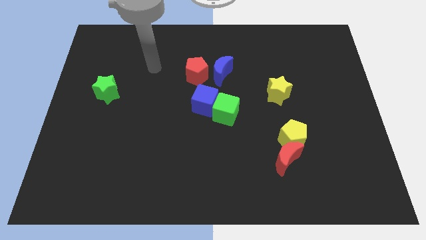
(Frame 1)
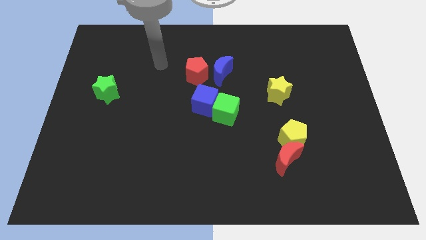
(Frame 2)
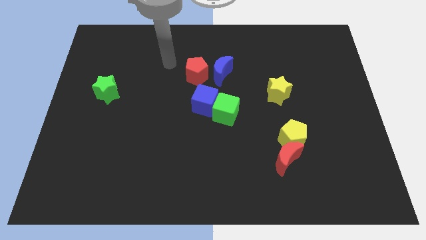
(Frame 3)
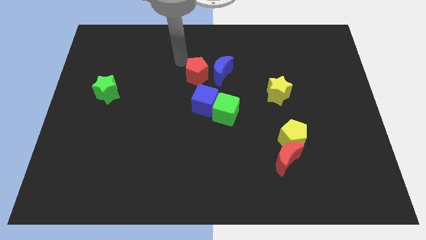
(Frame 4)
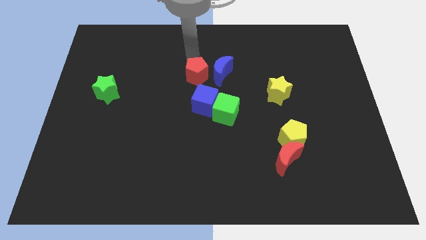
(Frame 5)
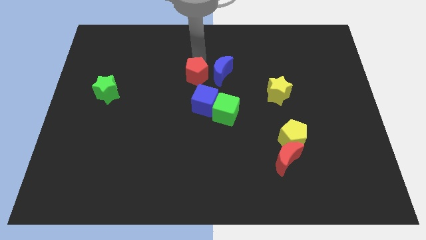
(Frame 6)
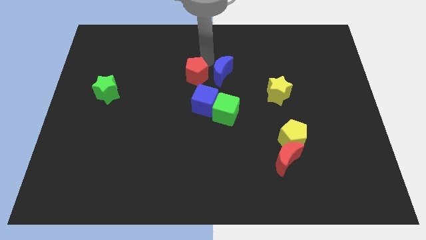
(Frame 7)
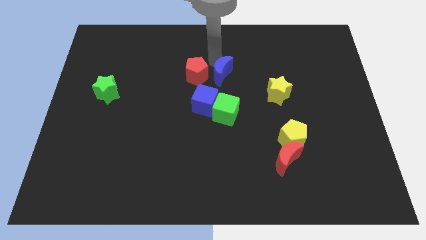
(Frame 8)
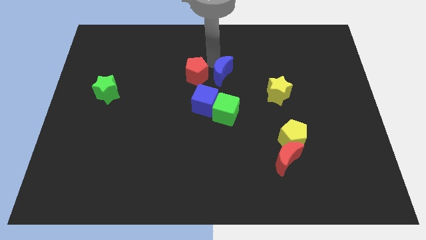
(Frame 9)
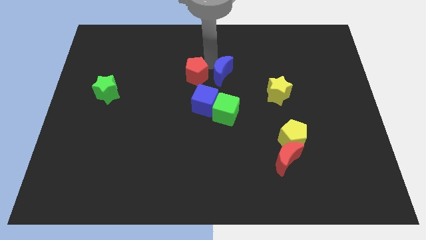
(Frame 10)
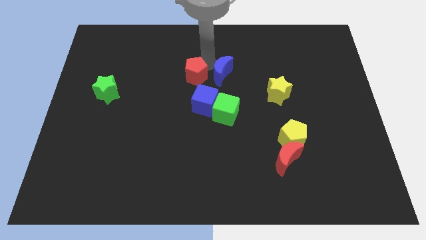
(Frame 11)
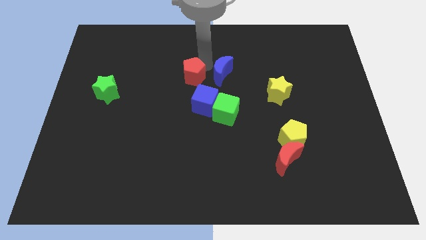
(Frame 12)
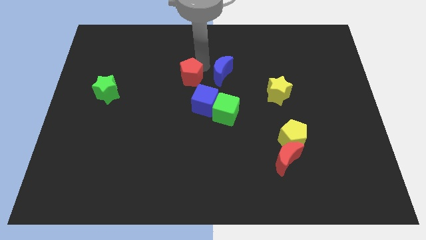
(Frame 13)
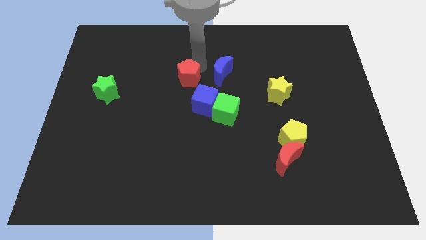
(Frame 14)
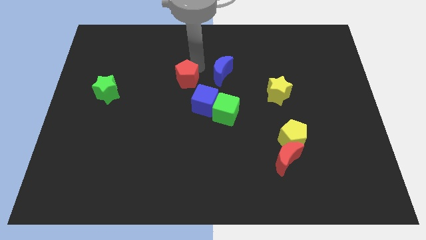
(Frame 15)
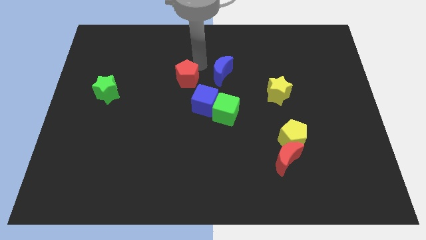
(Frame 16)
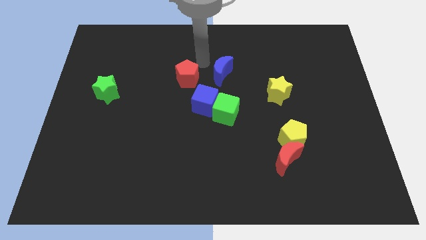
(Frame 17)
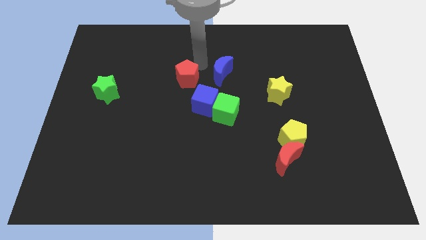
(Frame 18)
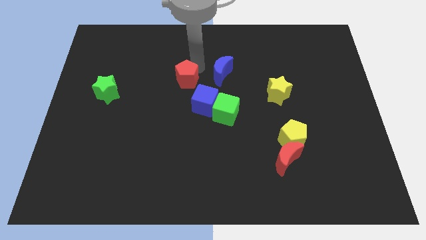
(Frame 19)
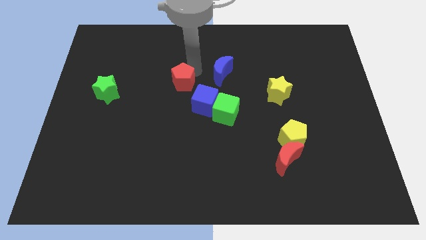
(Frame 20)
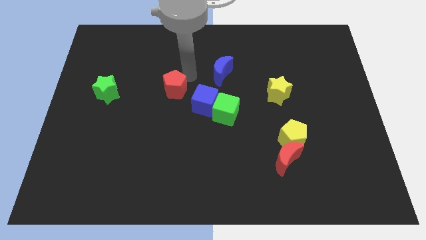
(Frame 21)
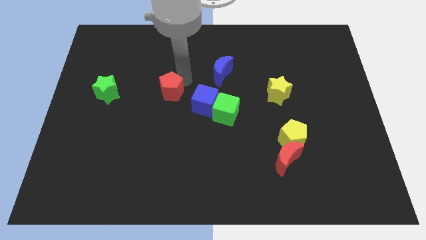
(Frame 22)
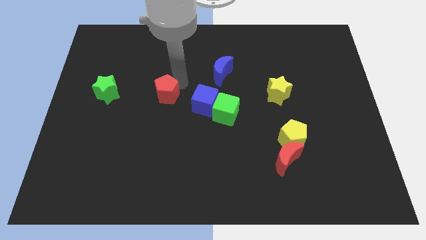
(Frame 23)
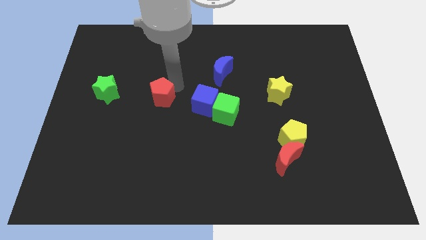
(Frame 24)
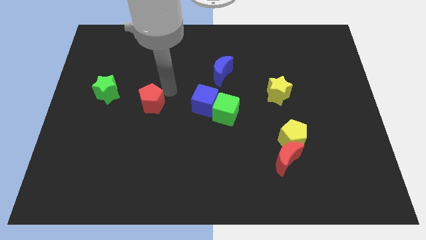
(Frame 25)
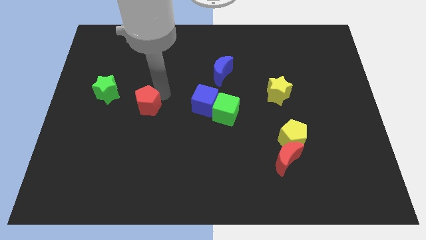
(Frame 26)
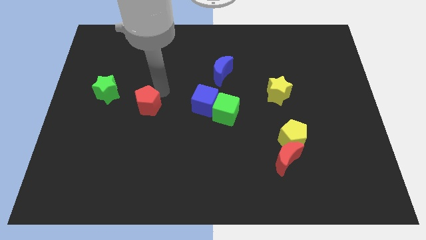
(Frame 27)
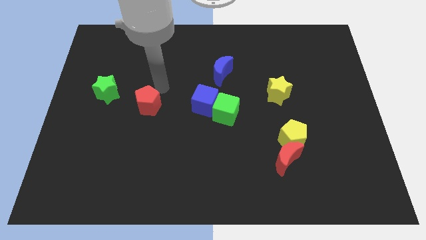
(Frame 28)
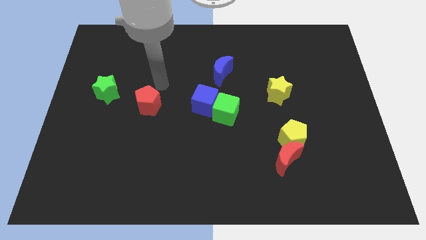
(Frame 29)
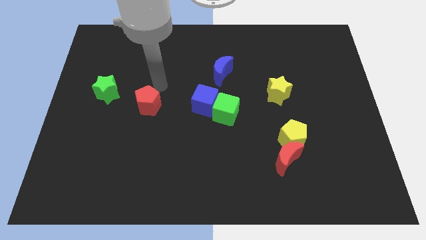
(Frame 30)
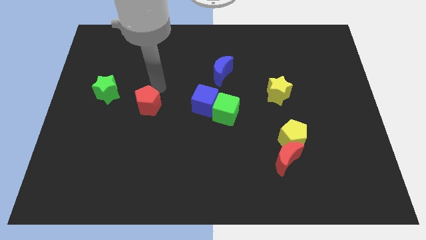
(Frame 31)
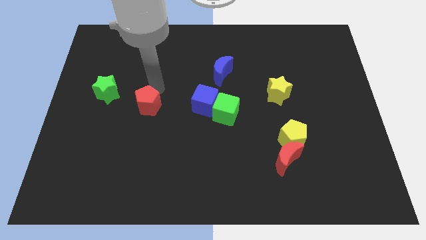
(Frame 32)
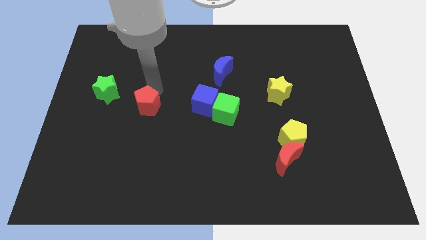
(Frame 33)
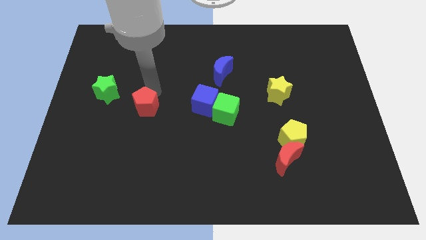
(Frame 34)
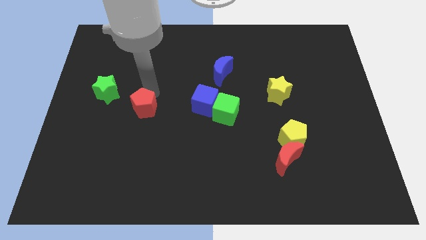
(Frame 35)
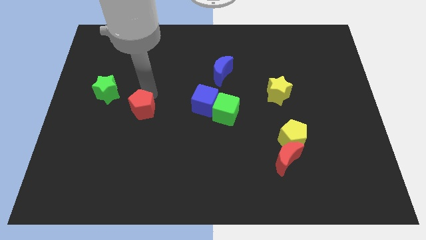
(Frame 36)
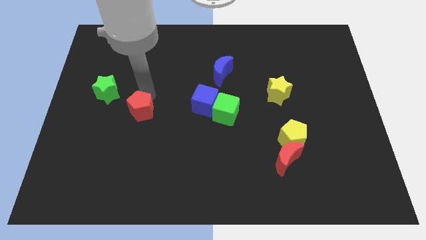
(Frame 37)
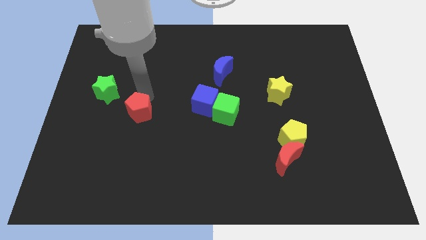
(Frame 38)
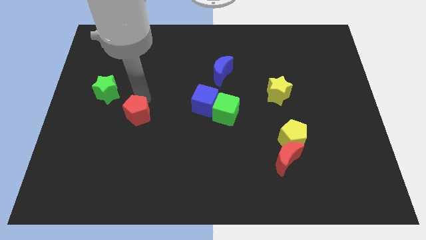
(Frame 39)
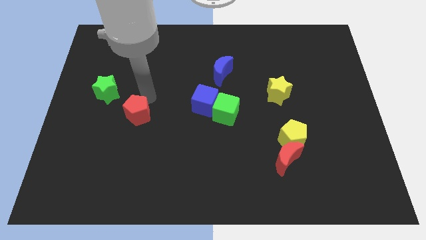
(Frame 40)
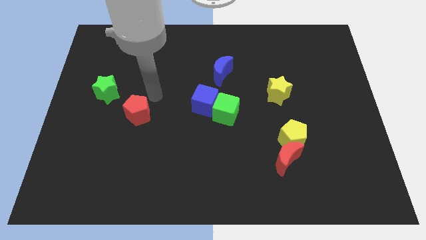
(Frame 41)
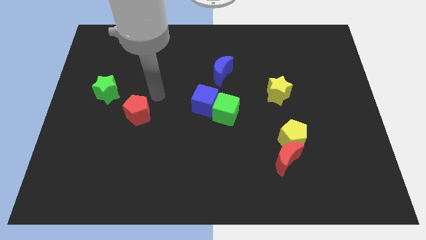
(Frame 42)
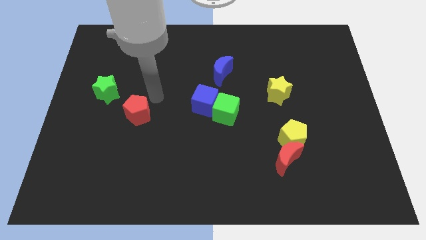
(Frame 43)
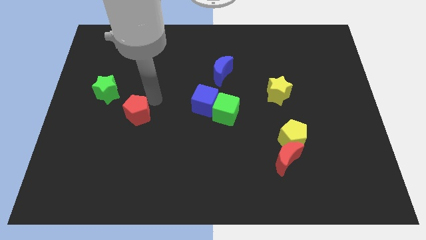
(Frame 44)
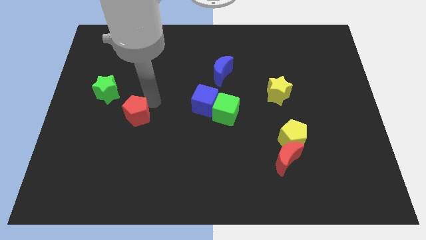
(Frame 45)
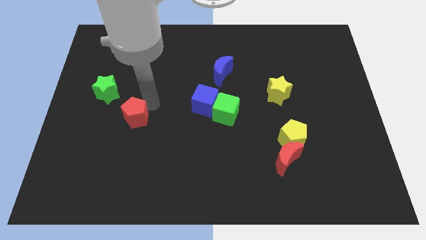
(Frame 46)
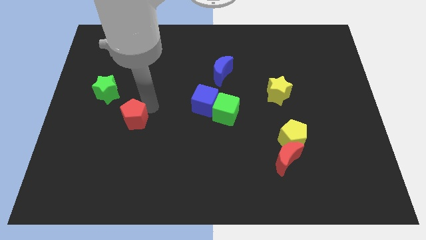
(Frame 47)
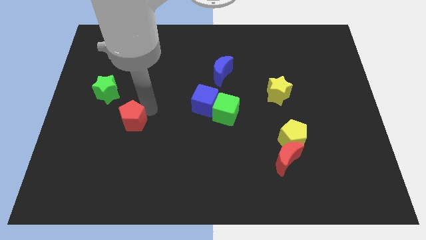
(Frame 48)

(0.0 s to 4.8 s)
move the red pentagon downwards and to the left

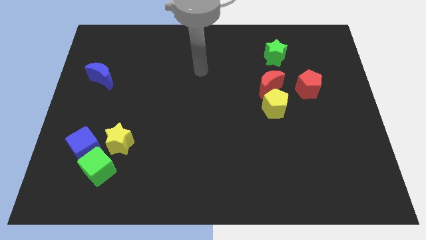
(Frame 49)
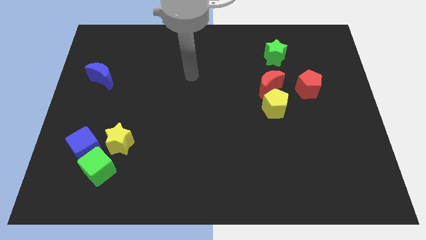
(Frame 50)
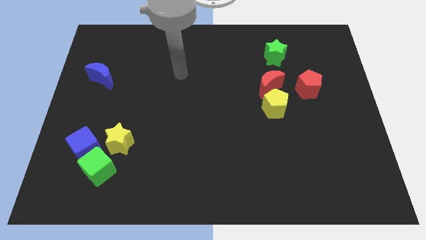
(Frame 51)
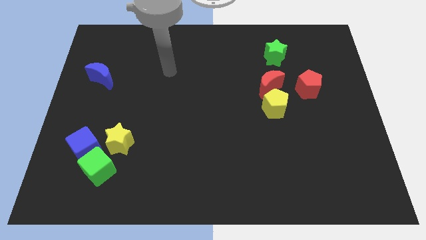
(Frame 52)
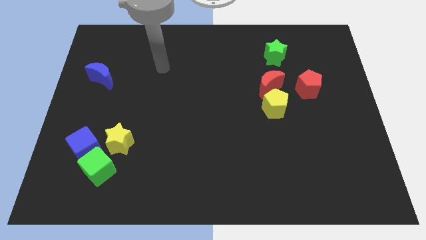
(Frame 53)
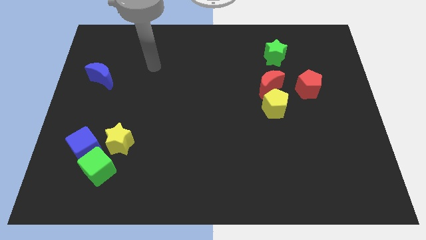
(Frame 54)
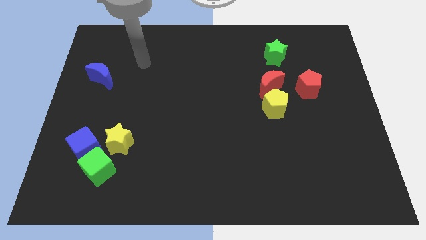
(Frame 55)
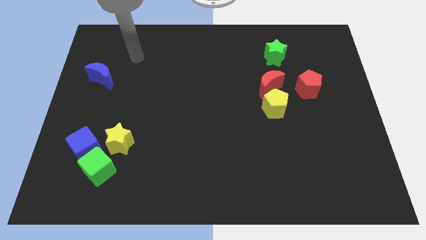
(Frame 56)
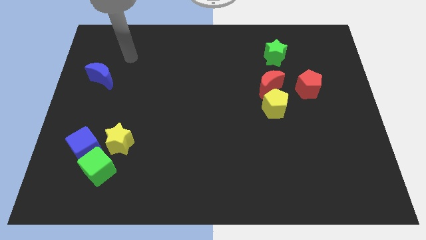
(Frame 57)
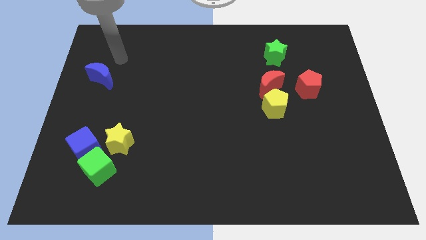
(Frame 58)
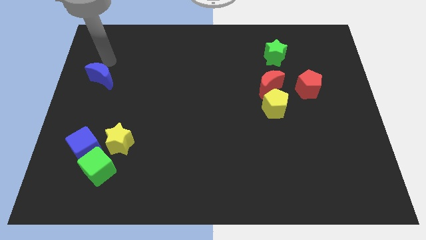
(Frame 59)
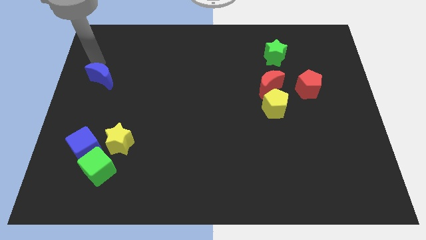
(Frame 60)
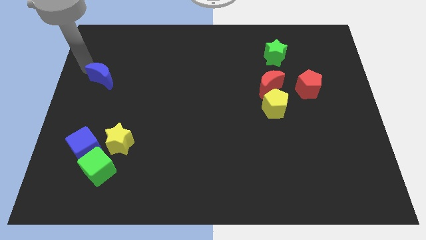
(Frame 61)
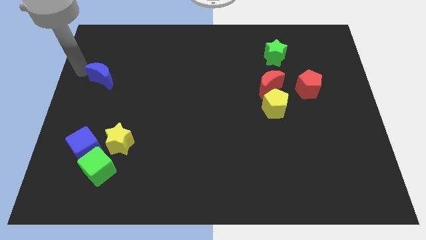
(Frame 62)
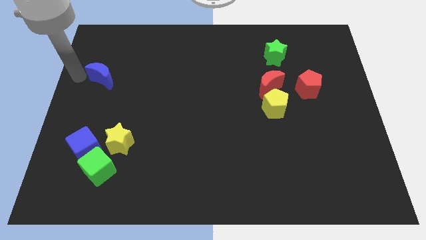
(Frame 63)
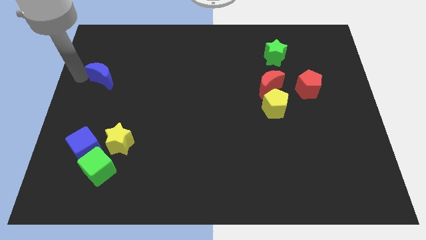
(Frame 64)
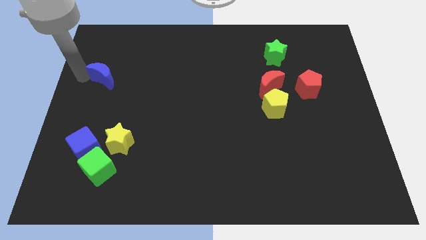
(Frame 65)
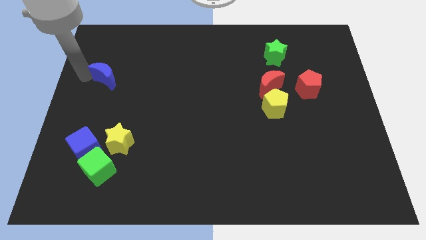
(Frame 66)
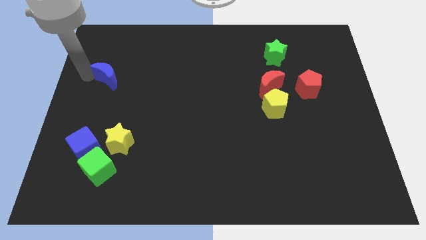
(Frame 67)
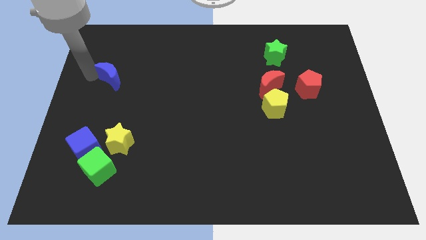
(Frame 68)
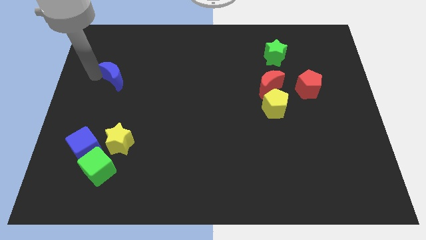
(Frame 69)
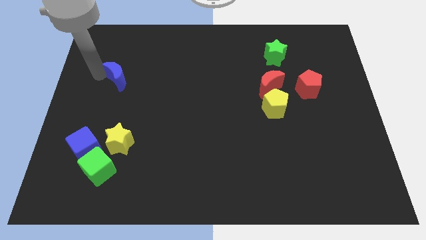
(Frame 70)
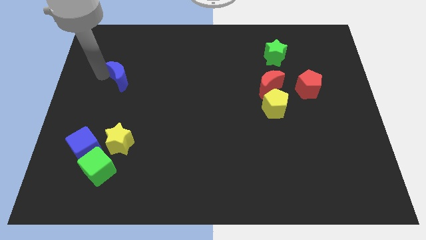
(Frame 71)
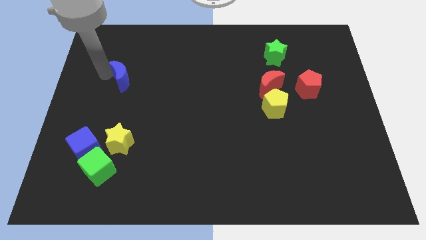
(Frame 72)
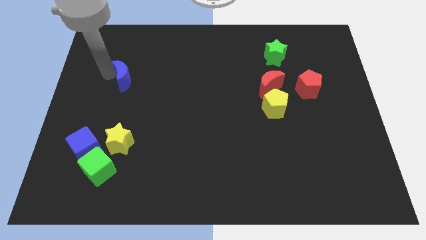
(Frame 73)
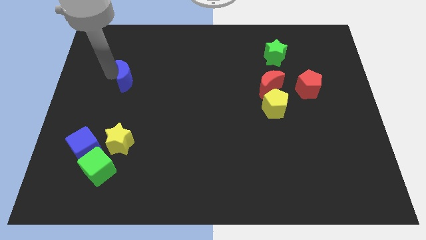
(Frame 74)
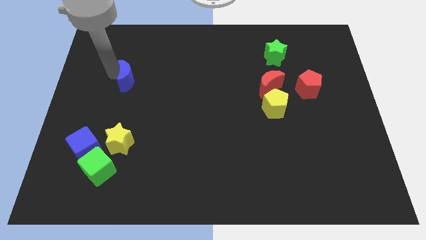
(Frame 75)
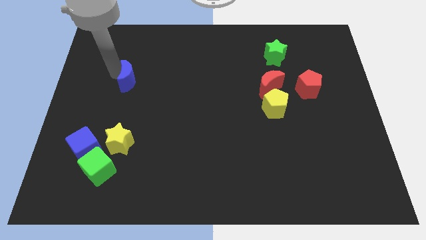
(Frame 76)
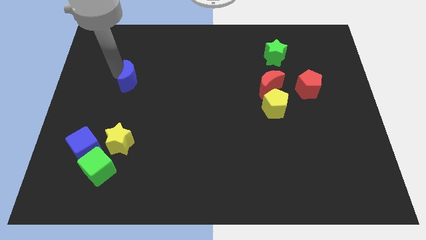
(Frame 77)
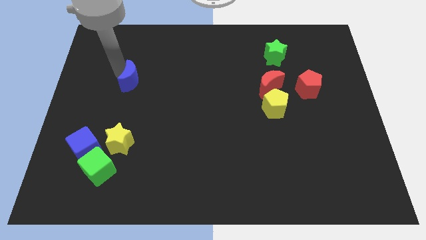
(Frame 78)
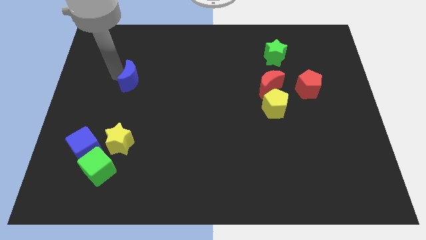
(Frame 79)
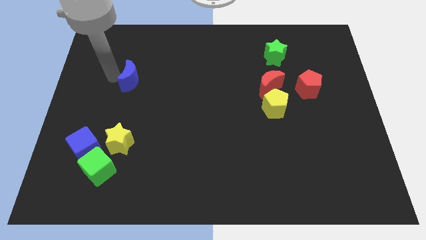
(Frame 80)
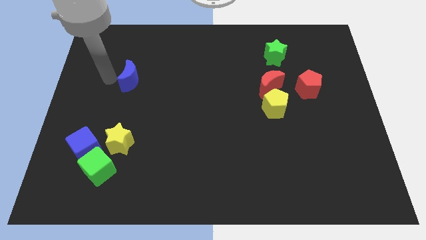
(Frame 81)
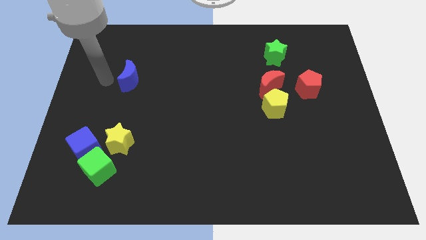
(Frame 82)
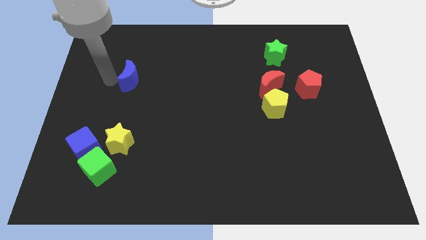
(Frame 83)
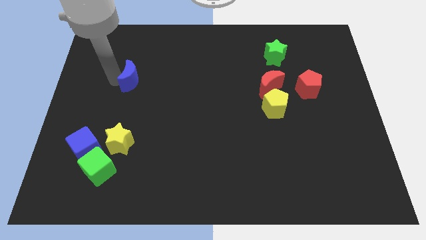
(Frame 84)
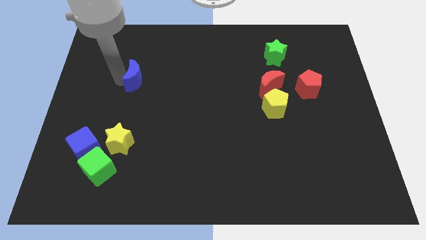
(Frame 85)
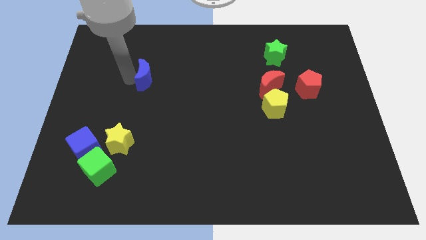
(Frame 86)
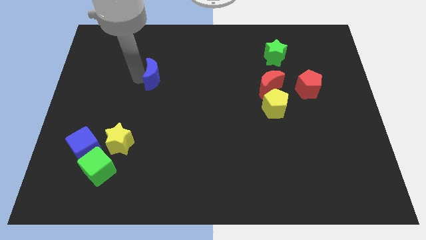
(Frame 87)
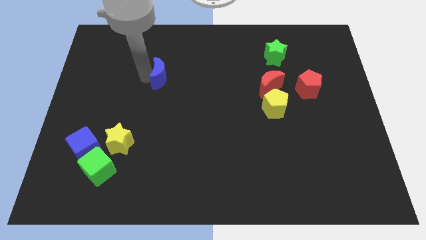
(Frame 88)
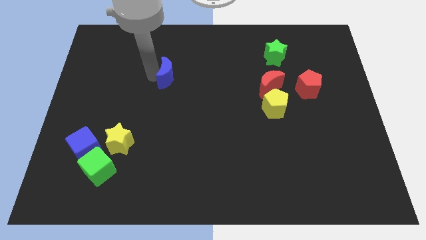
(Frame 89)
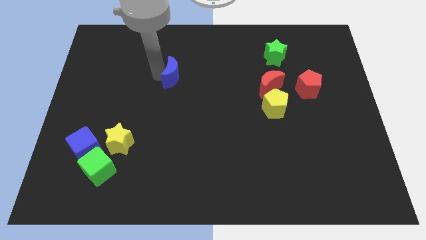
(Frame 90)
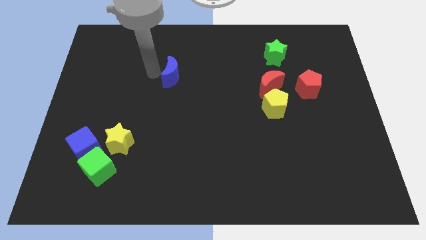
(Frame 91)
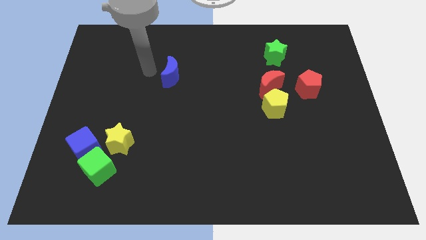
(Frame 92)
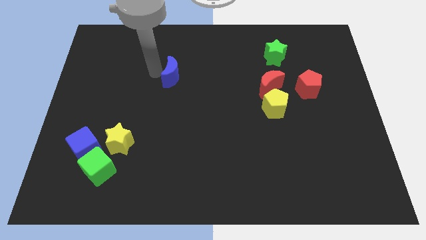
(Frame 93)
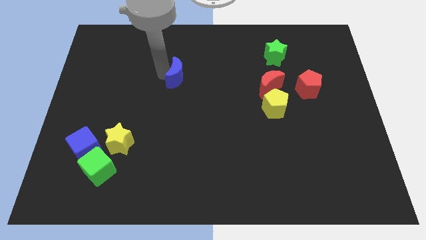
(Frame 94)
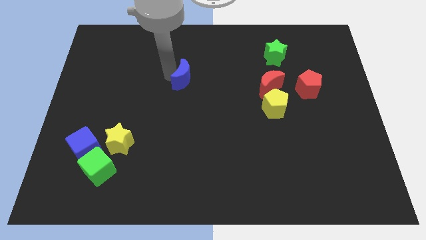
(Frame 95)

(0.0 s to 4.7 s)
move the blue moon to the right
